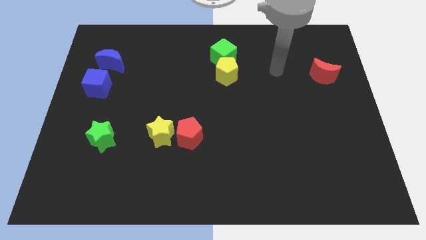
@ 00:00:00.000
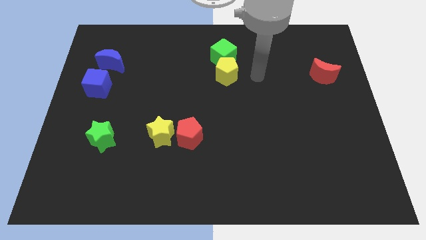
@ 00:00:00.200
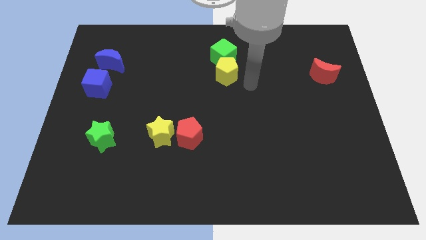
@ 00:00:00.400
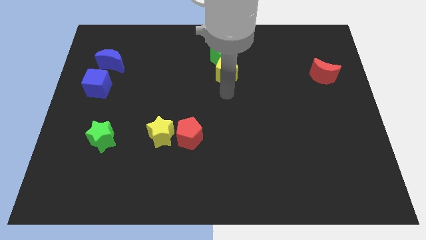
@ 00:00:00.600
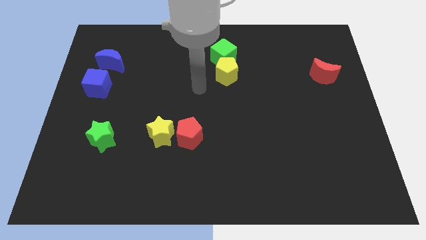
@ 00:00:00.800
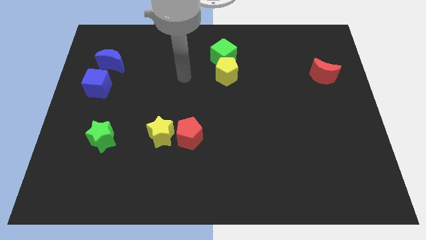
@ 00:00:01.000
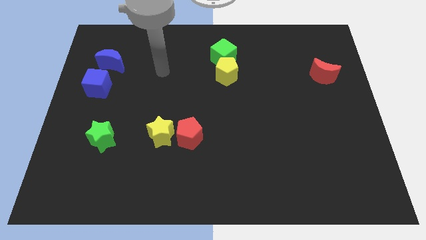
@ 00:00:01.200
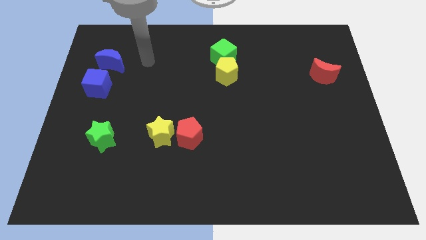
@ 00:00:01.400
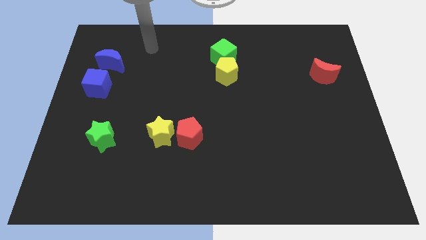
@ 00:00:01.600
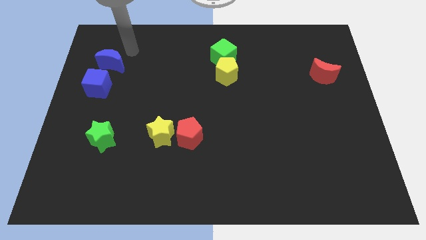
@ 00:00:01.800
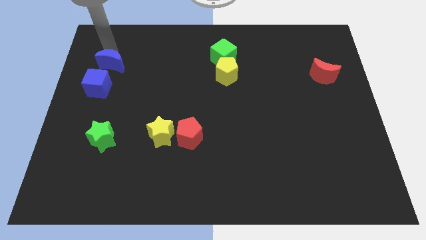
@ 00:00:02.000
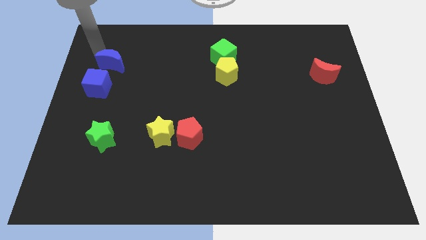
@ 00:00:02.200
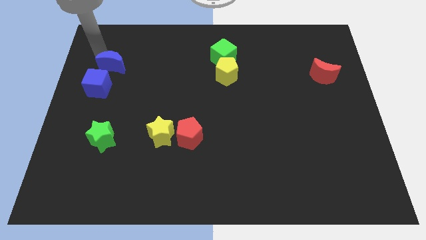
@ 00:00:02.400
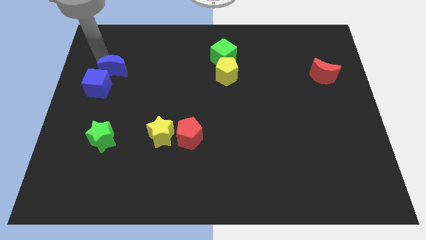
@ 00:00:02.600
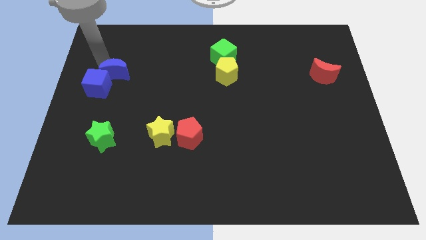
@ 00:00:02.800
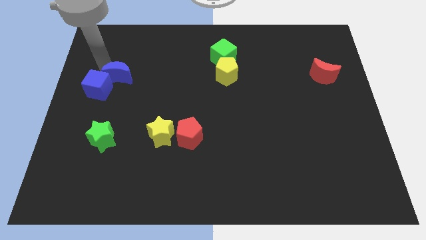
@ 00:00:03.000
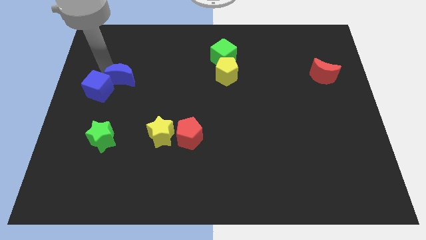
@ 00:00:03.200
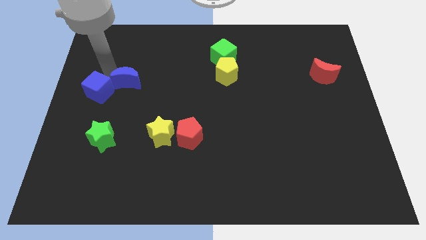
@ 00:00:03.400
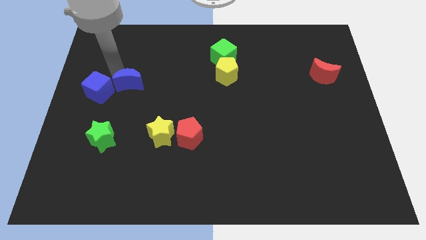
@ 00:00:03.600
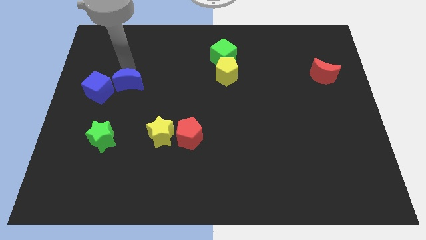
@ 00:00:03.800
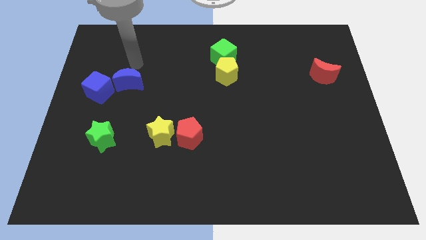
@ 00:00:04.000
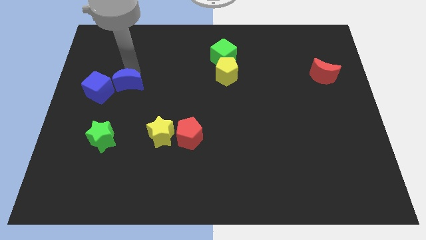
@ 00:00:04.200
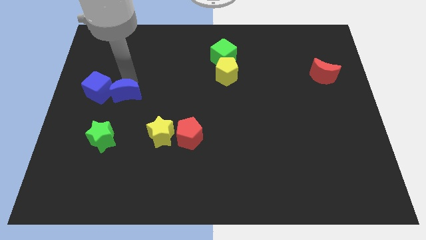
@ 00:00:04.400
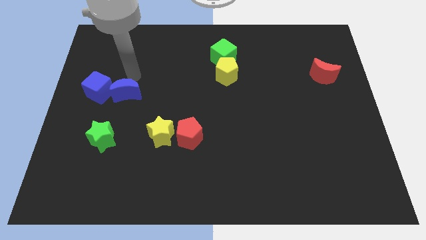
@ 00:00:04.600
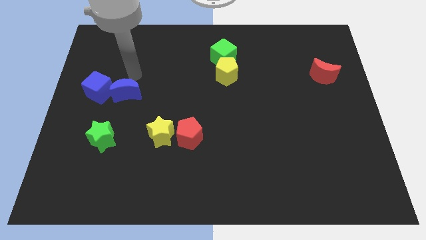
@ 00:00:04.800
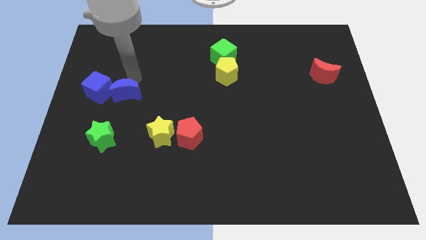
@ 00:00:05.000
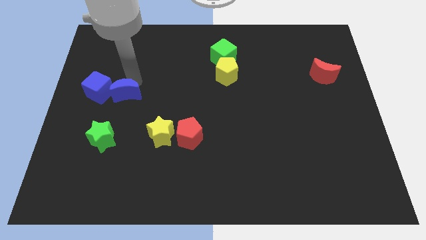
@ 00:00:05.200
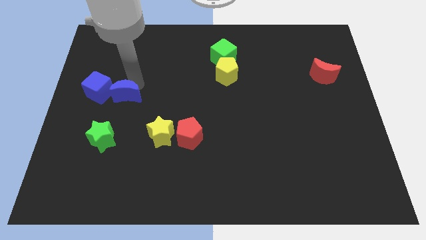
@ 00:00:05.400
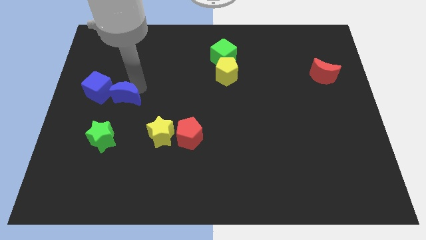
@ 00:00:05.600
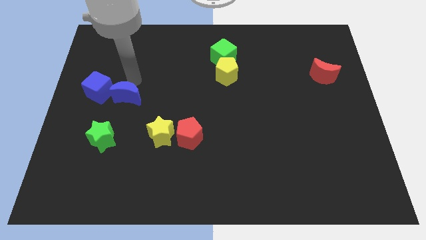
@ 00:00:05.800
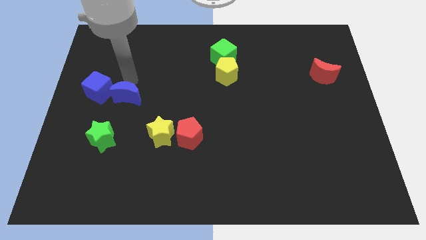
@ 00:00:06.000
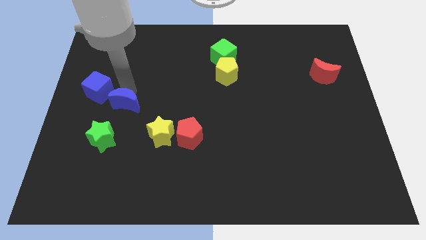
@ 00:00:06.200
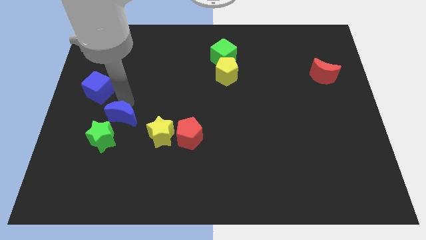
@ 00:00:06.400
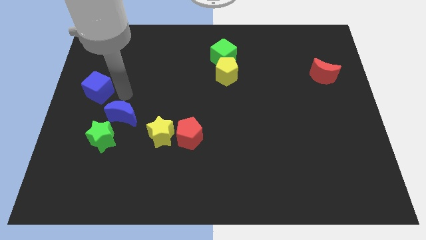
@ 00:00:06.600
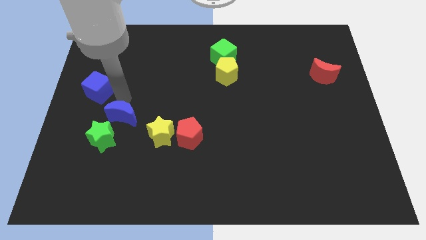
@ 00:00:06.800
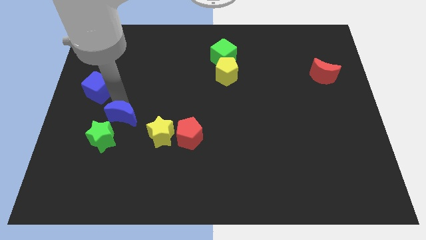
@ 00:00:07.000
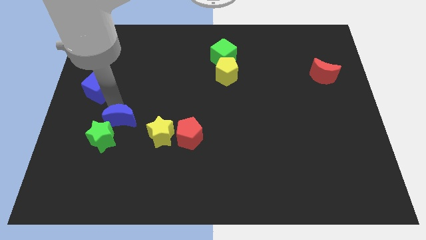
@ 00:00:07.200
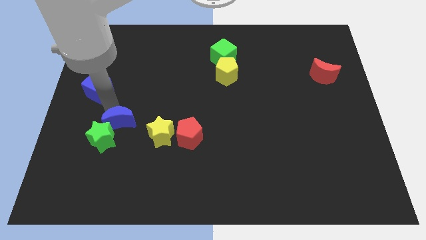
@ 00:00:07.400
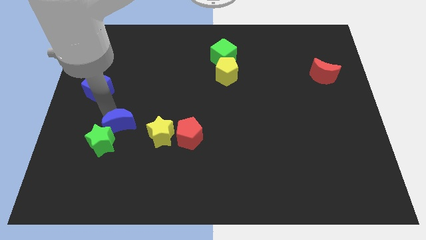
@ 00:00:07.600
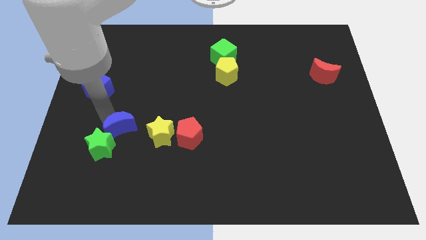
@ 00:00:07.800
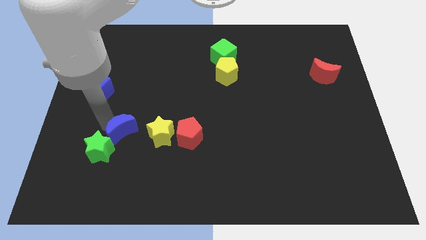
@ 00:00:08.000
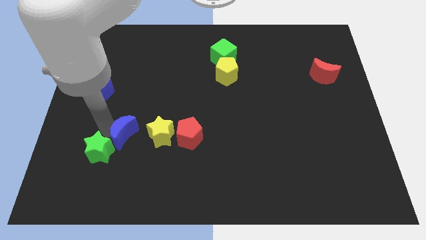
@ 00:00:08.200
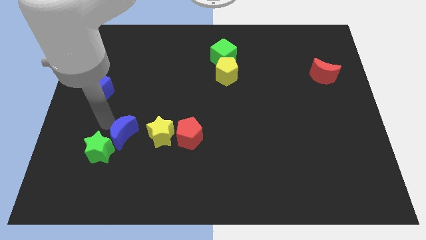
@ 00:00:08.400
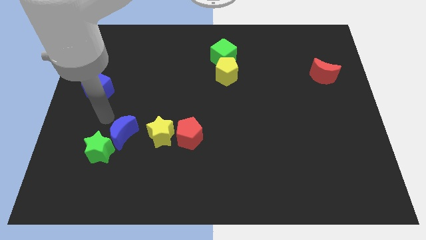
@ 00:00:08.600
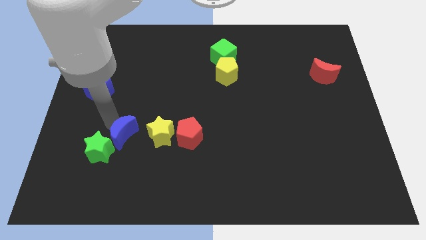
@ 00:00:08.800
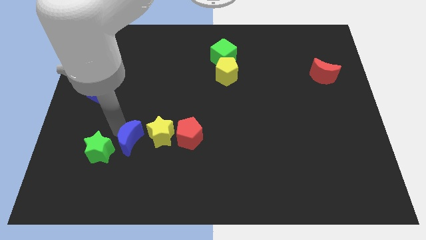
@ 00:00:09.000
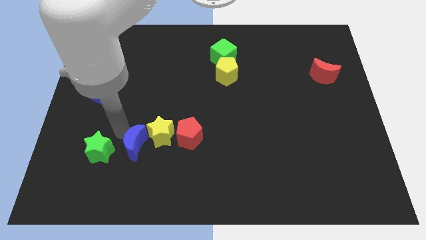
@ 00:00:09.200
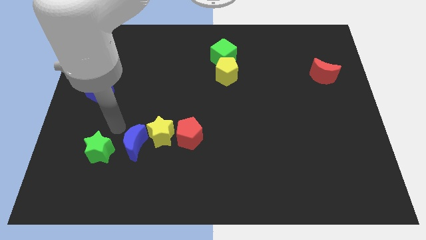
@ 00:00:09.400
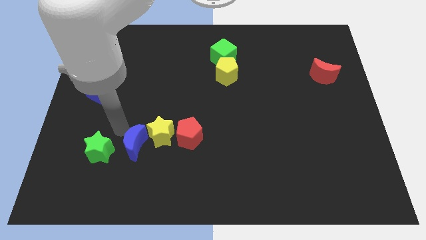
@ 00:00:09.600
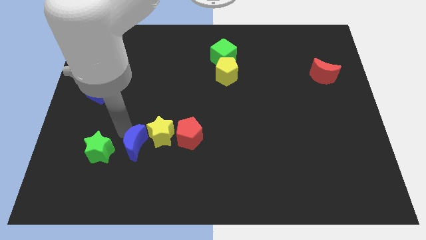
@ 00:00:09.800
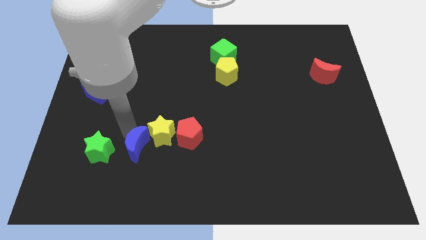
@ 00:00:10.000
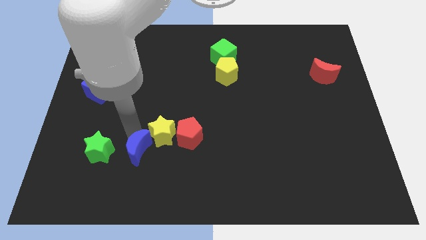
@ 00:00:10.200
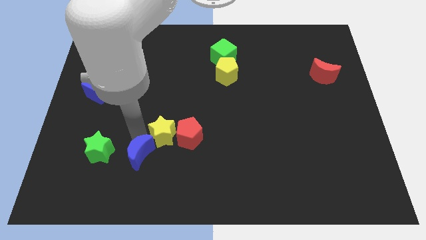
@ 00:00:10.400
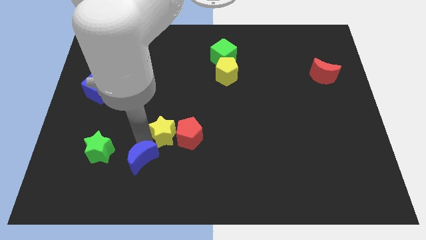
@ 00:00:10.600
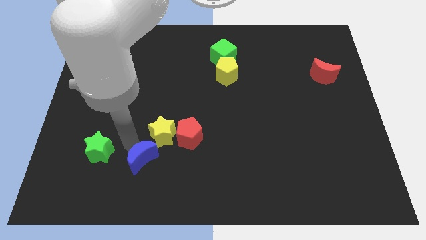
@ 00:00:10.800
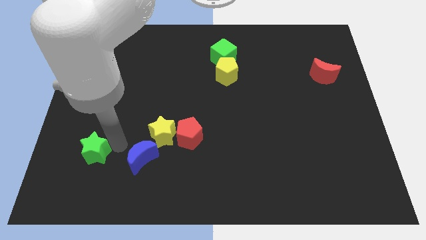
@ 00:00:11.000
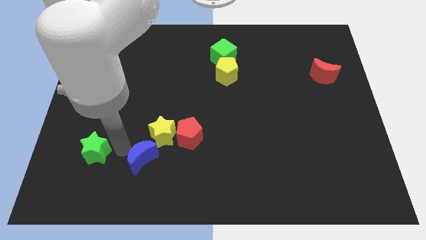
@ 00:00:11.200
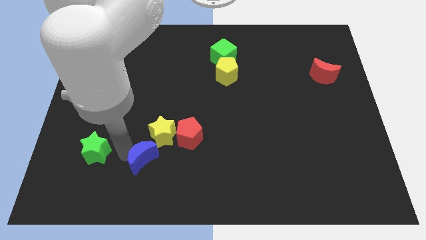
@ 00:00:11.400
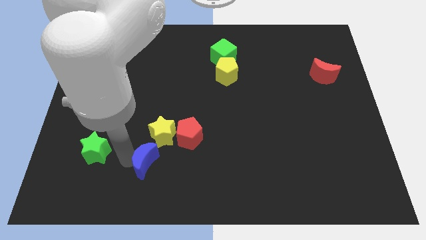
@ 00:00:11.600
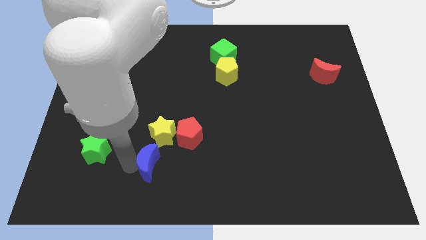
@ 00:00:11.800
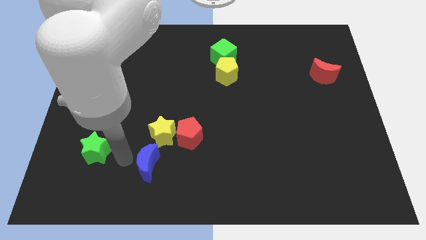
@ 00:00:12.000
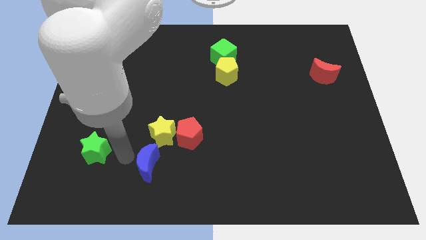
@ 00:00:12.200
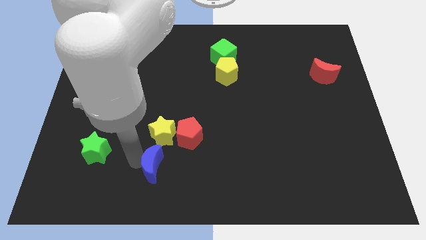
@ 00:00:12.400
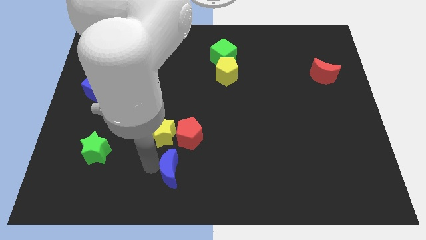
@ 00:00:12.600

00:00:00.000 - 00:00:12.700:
push the blue moon to the bottom side
